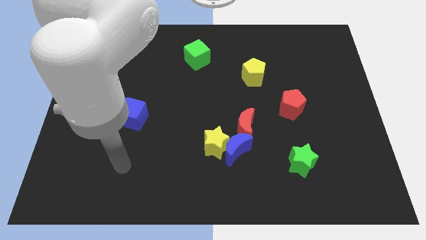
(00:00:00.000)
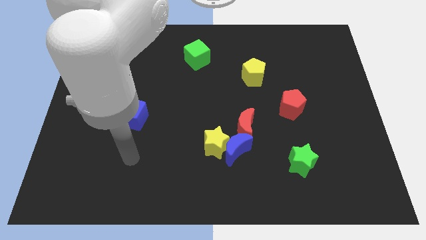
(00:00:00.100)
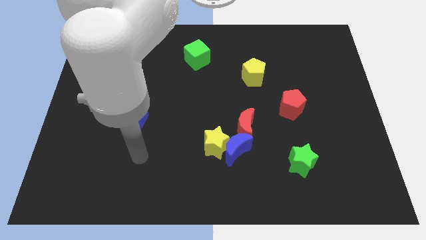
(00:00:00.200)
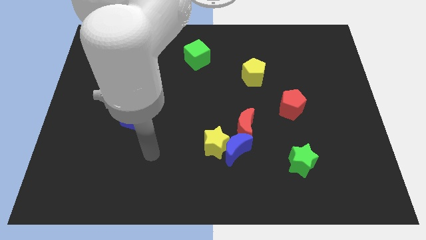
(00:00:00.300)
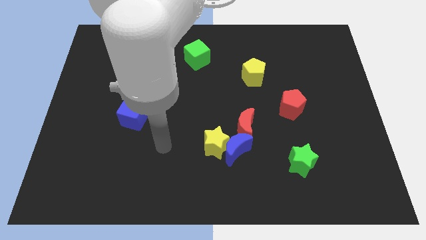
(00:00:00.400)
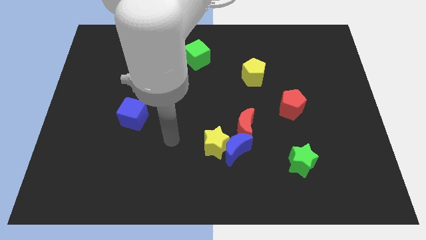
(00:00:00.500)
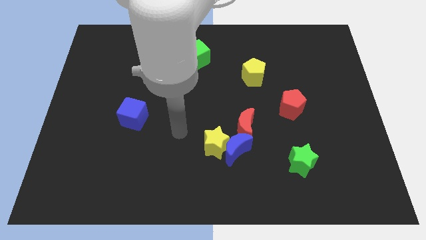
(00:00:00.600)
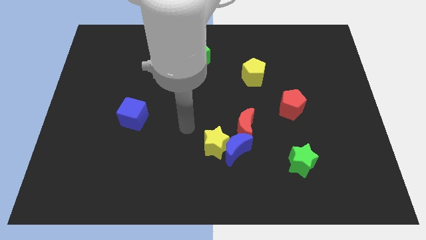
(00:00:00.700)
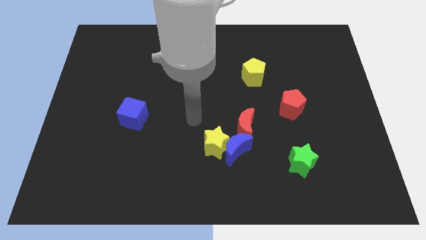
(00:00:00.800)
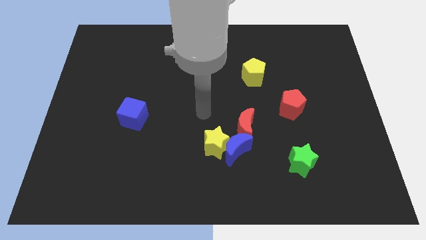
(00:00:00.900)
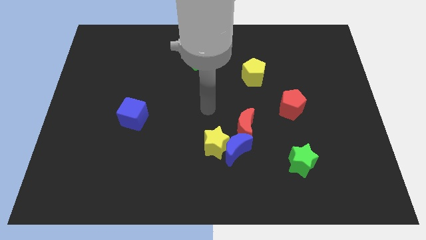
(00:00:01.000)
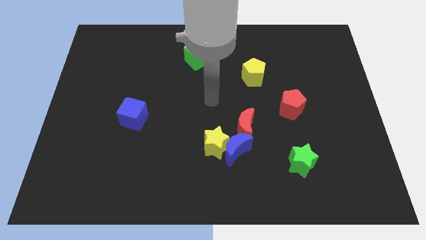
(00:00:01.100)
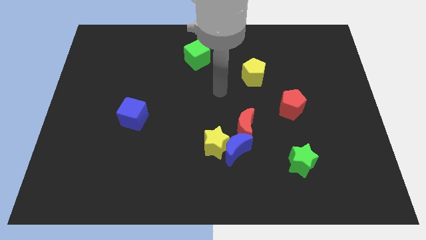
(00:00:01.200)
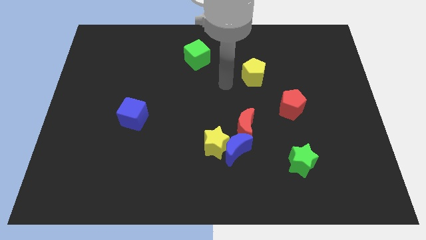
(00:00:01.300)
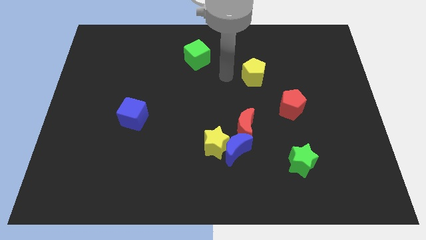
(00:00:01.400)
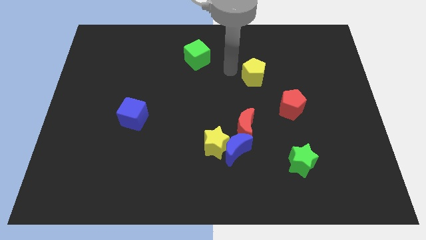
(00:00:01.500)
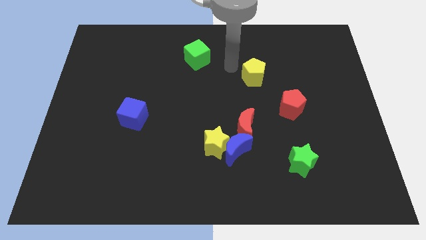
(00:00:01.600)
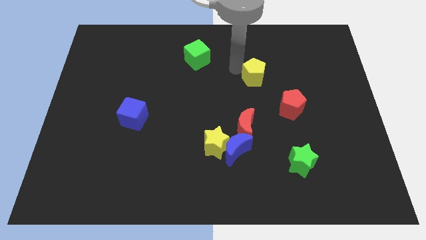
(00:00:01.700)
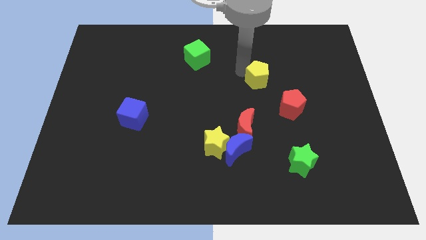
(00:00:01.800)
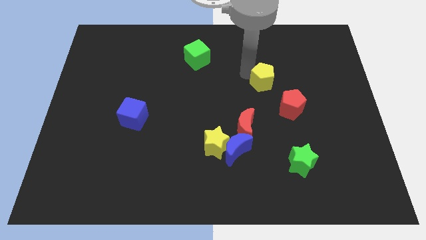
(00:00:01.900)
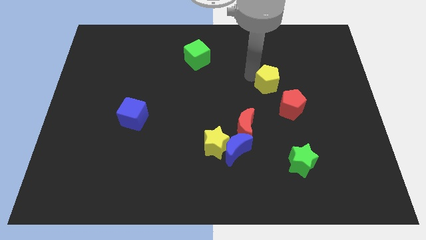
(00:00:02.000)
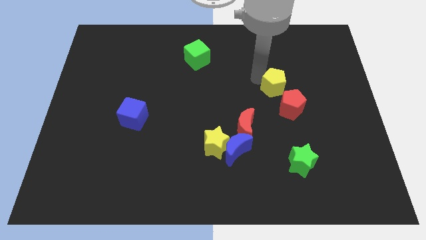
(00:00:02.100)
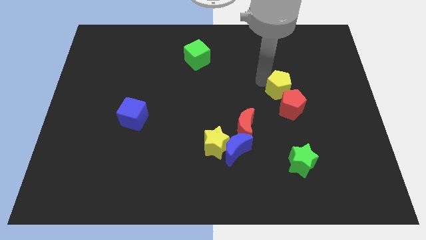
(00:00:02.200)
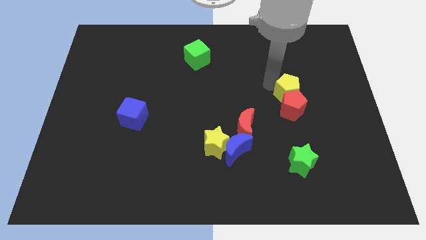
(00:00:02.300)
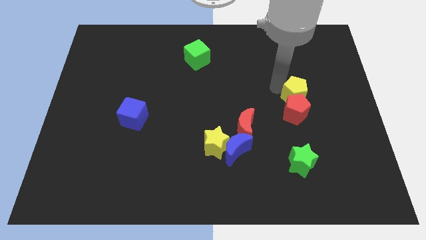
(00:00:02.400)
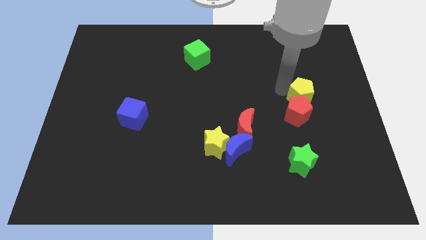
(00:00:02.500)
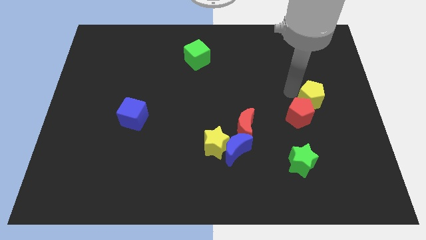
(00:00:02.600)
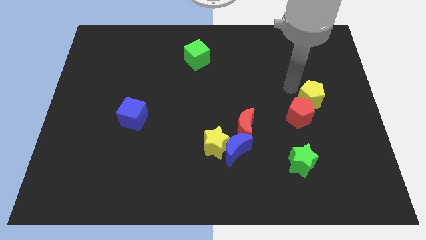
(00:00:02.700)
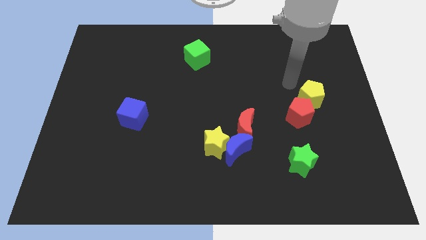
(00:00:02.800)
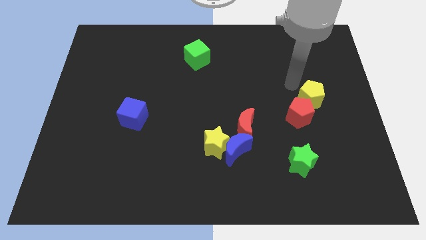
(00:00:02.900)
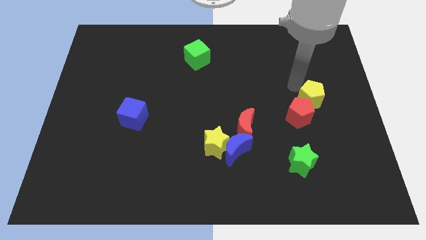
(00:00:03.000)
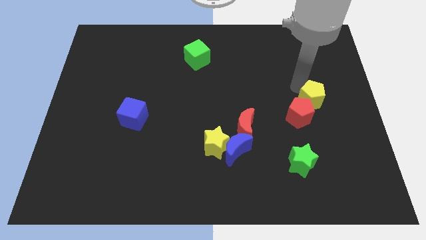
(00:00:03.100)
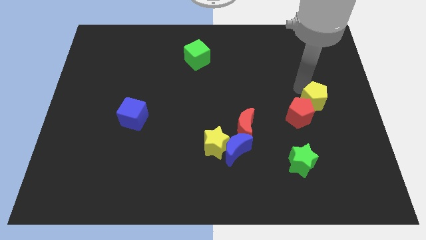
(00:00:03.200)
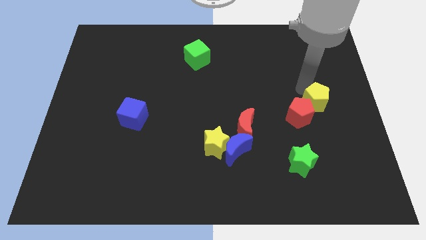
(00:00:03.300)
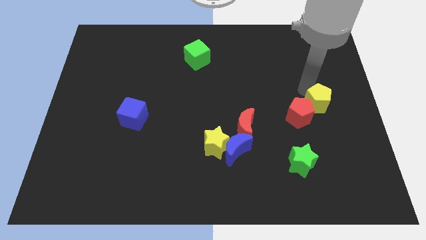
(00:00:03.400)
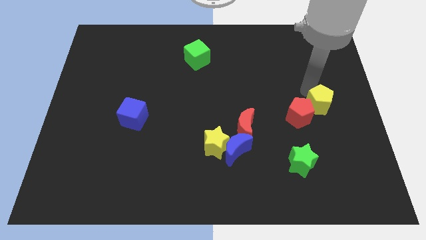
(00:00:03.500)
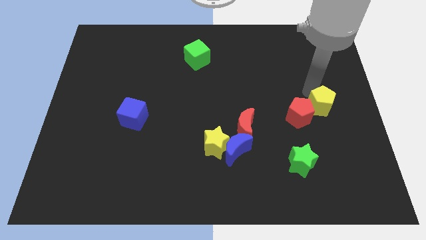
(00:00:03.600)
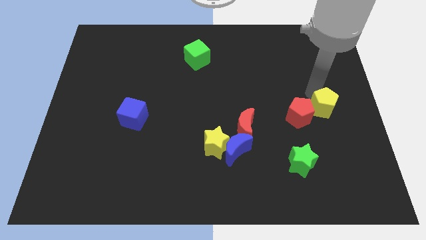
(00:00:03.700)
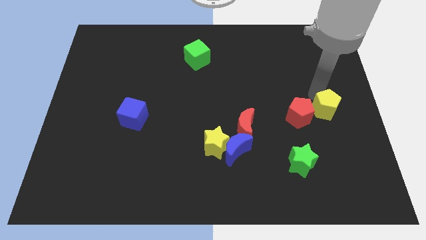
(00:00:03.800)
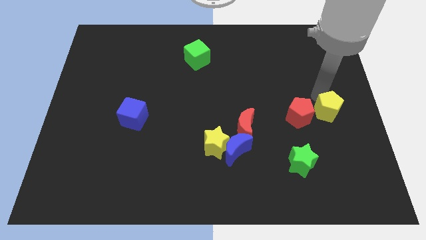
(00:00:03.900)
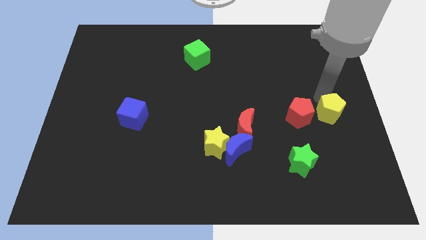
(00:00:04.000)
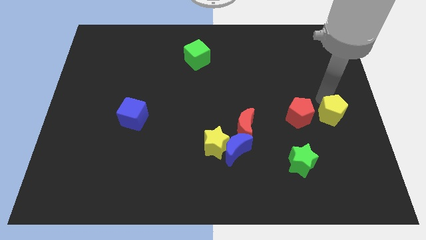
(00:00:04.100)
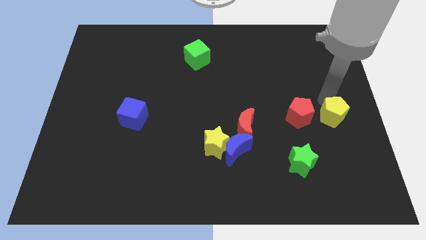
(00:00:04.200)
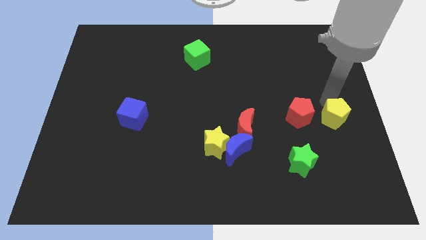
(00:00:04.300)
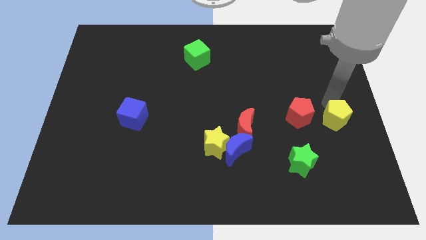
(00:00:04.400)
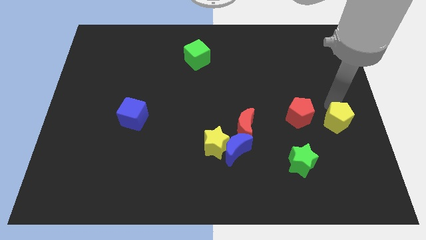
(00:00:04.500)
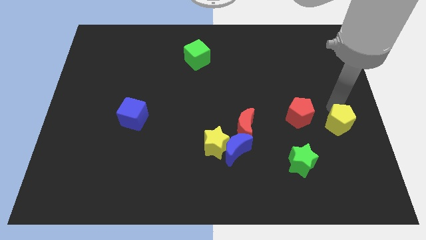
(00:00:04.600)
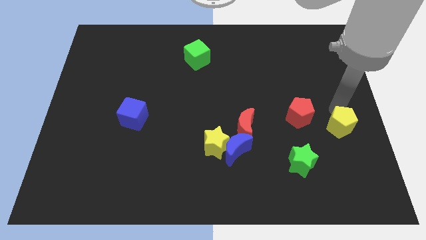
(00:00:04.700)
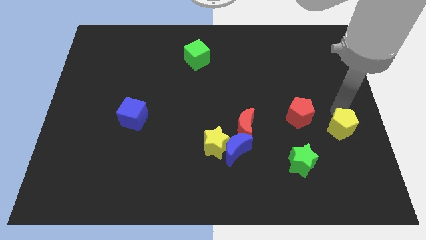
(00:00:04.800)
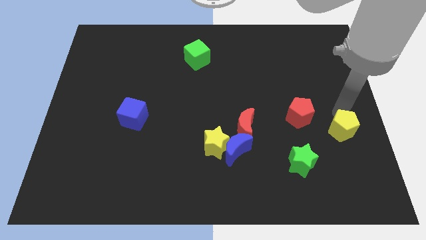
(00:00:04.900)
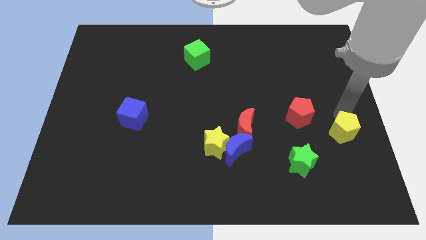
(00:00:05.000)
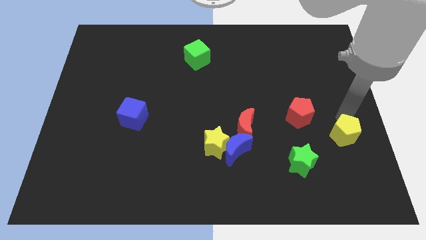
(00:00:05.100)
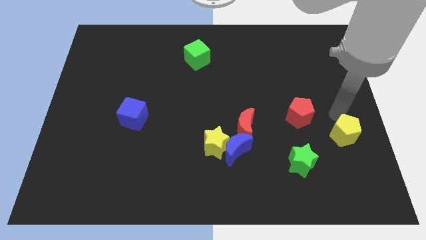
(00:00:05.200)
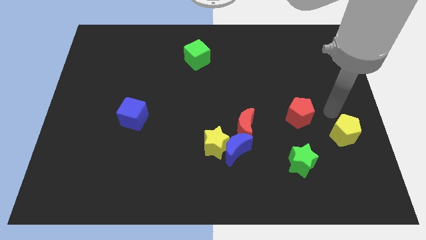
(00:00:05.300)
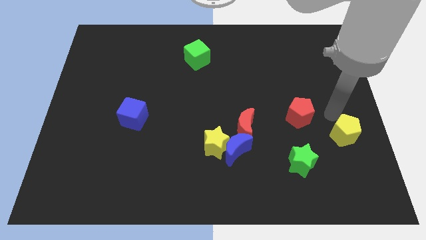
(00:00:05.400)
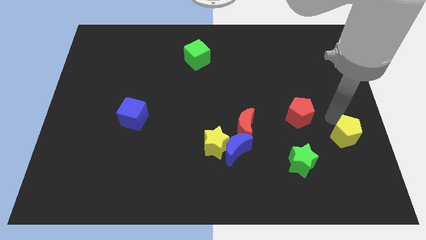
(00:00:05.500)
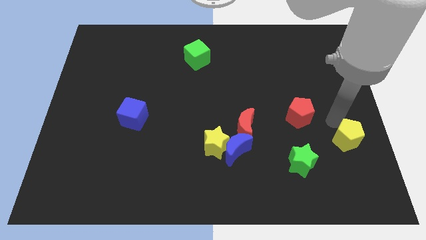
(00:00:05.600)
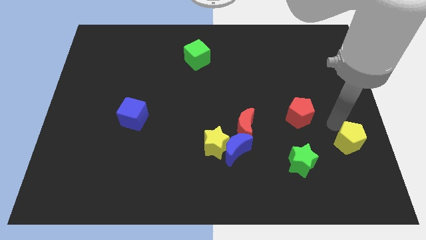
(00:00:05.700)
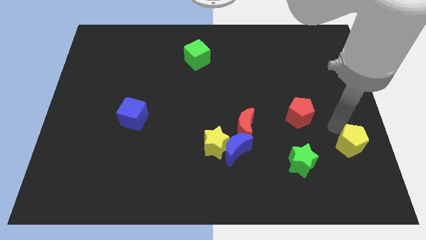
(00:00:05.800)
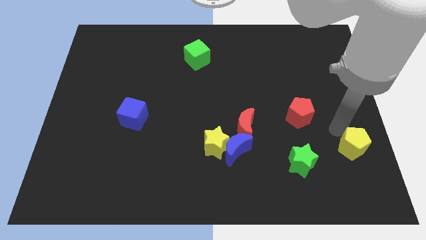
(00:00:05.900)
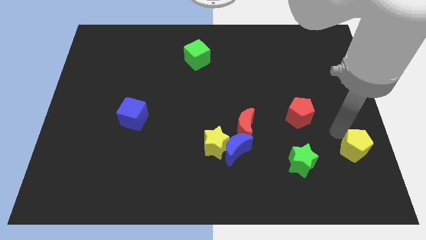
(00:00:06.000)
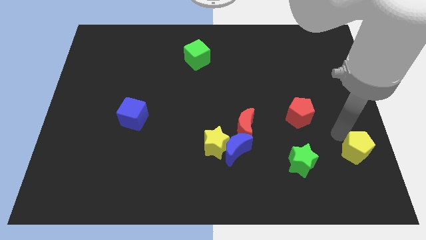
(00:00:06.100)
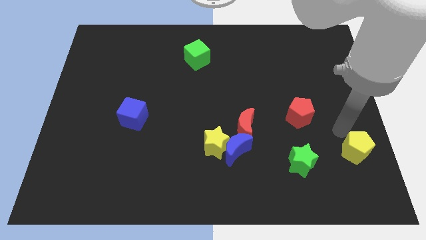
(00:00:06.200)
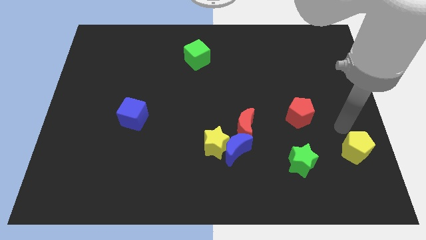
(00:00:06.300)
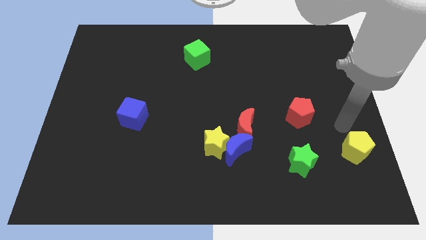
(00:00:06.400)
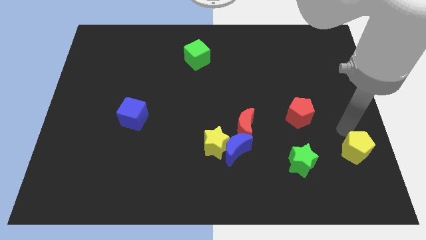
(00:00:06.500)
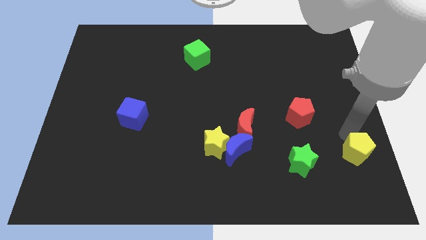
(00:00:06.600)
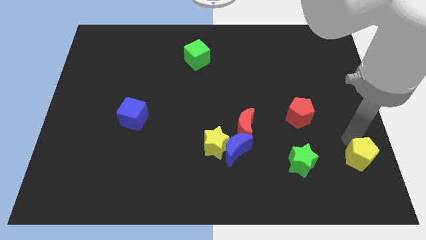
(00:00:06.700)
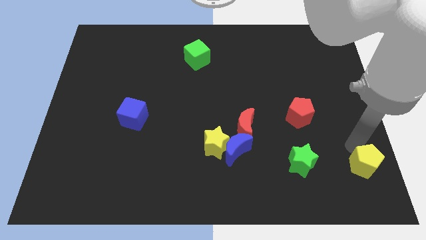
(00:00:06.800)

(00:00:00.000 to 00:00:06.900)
slide the yellow pentagon to the lower right corner
